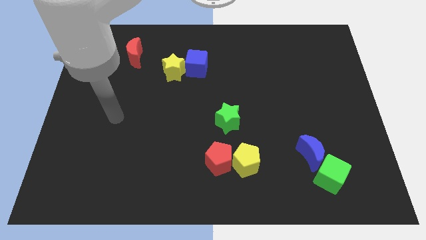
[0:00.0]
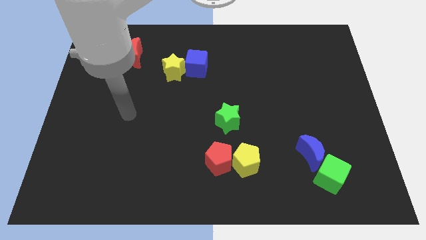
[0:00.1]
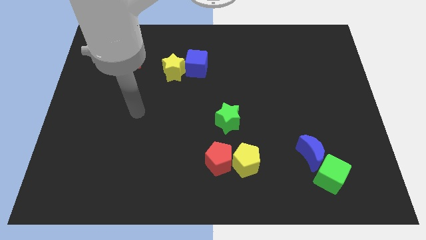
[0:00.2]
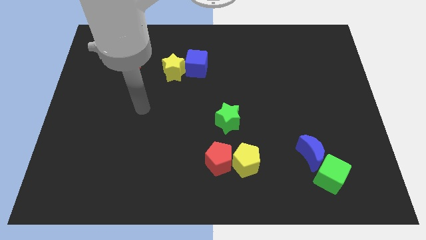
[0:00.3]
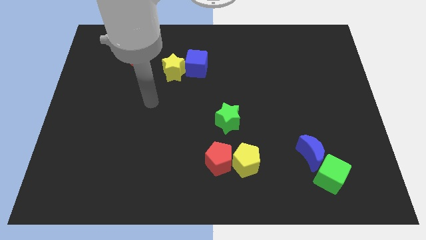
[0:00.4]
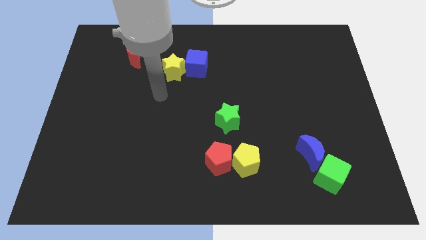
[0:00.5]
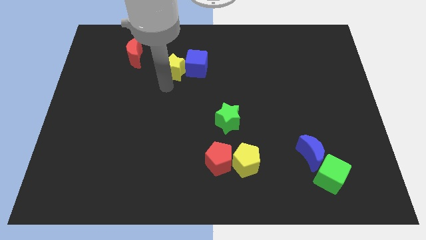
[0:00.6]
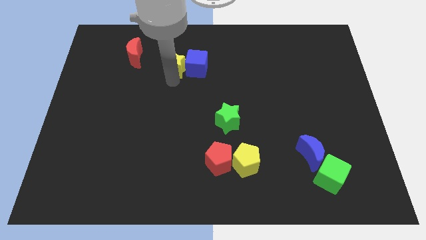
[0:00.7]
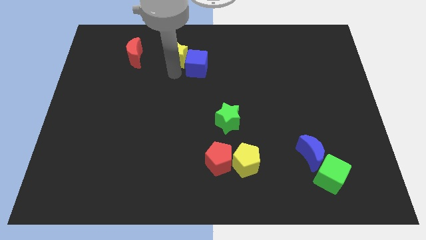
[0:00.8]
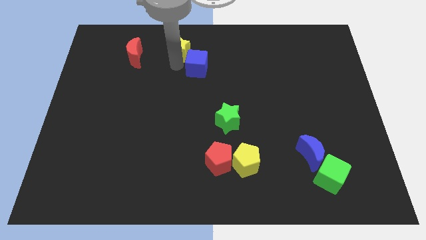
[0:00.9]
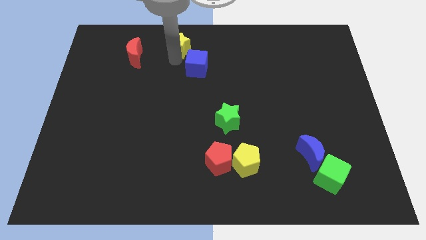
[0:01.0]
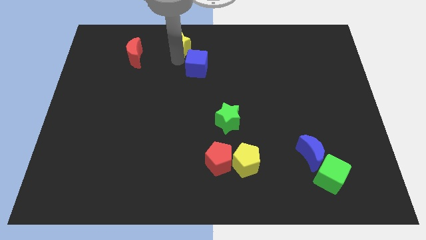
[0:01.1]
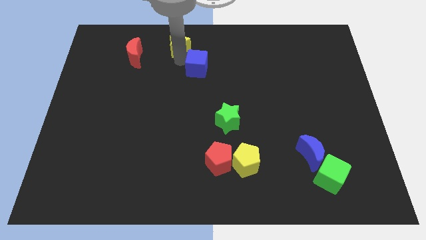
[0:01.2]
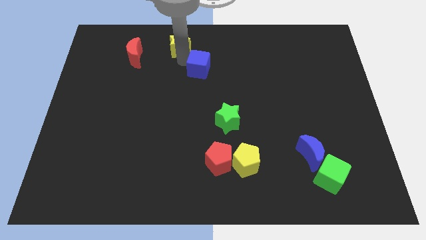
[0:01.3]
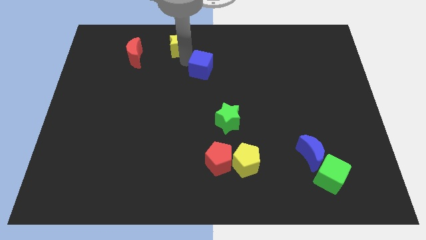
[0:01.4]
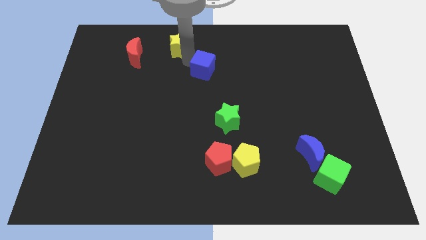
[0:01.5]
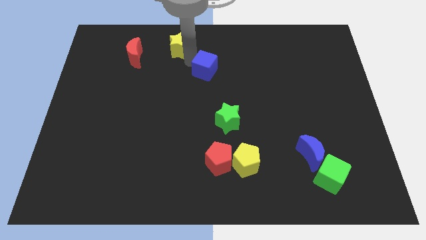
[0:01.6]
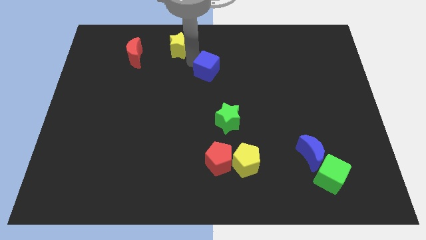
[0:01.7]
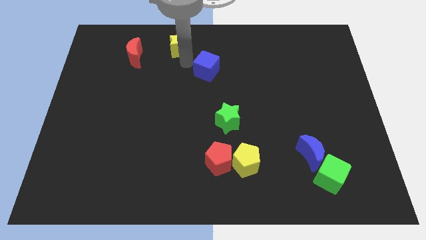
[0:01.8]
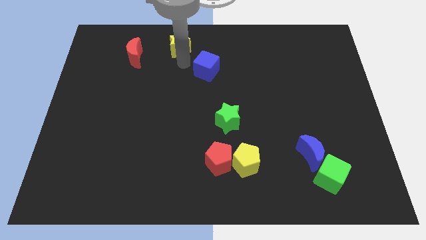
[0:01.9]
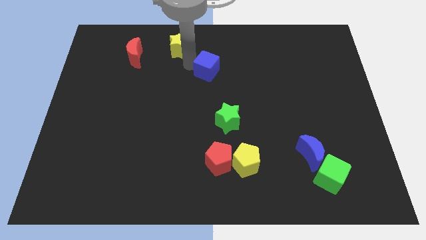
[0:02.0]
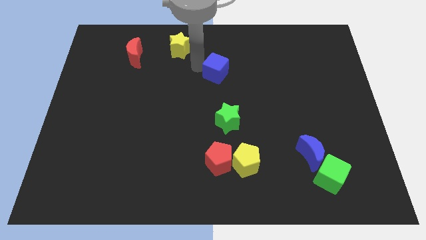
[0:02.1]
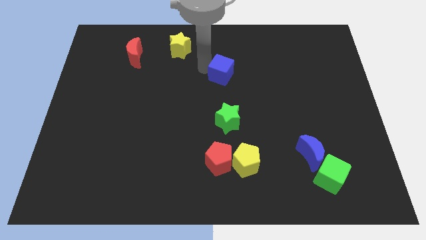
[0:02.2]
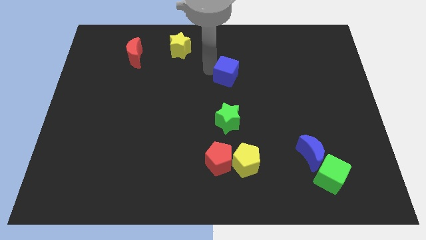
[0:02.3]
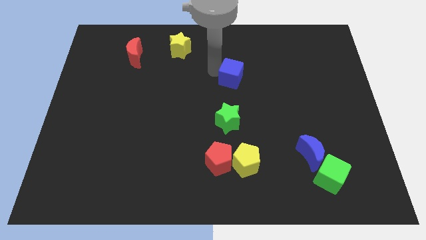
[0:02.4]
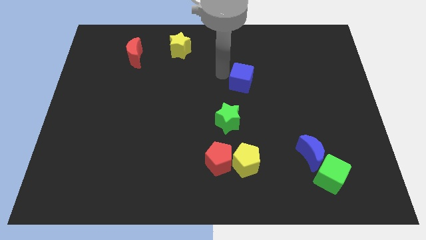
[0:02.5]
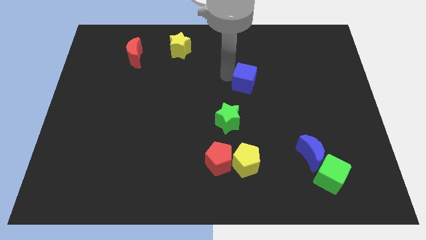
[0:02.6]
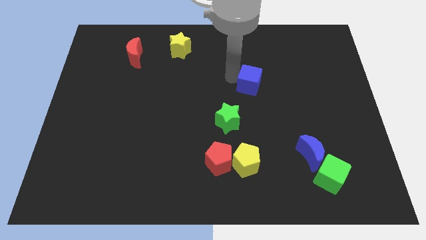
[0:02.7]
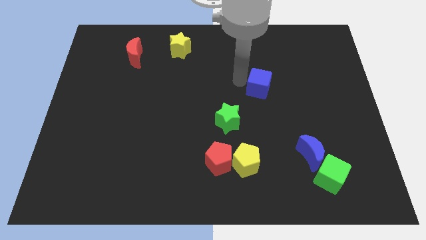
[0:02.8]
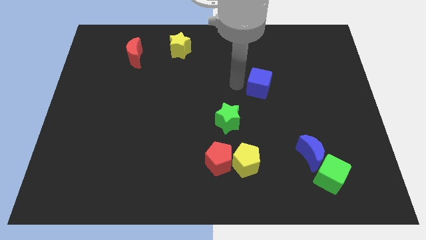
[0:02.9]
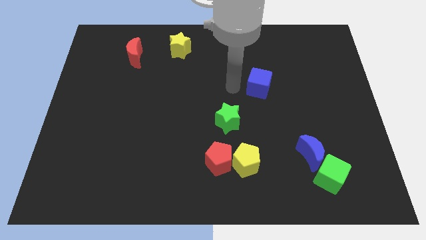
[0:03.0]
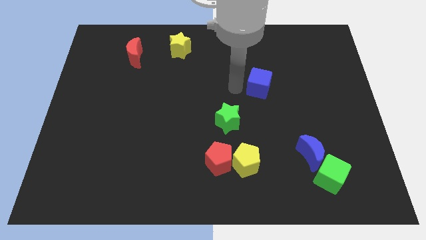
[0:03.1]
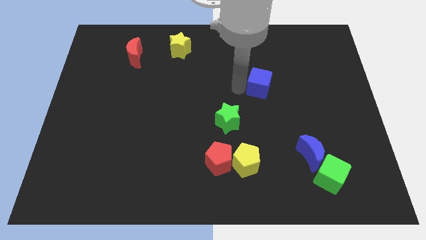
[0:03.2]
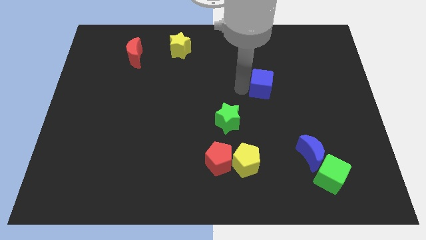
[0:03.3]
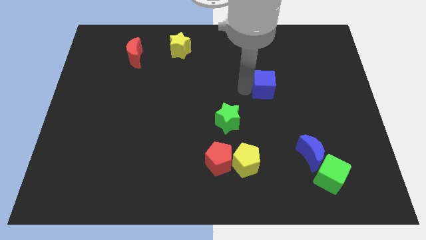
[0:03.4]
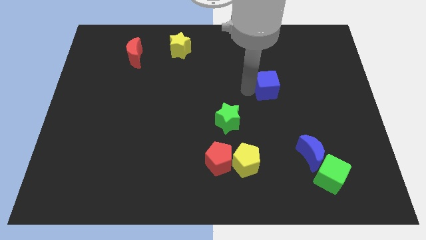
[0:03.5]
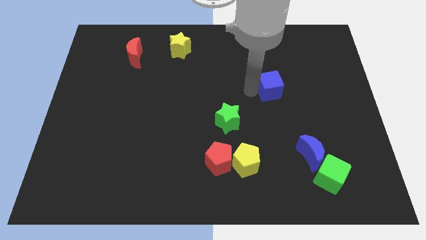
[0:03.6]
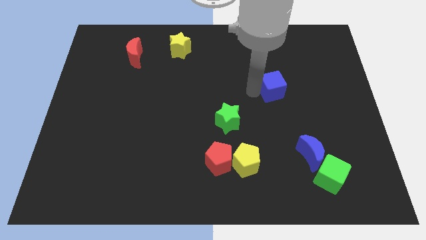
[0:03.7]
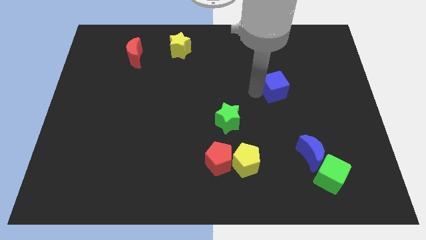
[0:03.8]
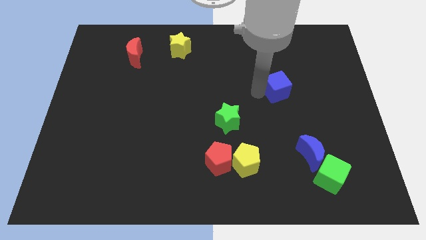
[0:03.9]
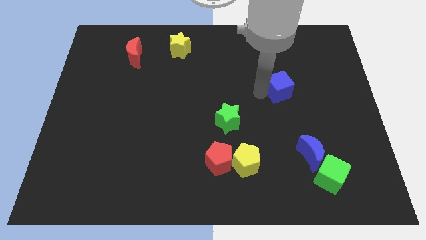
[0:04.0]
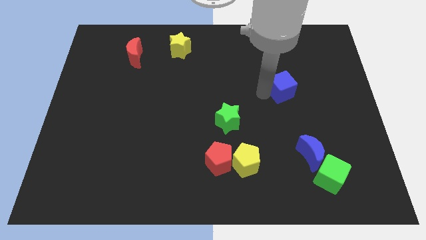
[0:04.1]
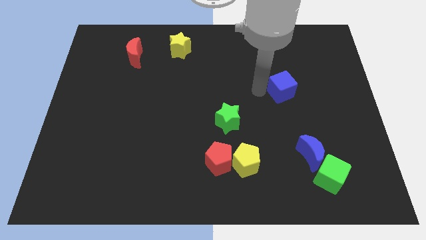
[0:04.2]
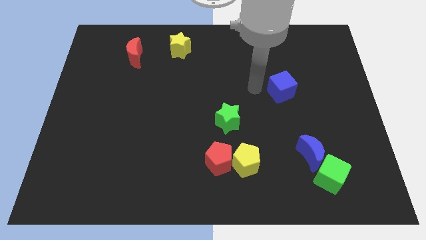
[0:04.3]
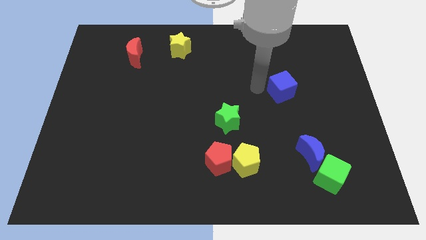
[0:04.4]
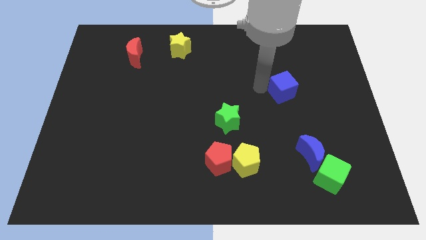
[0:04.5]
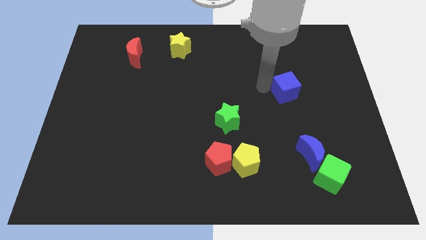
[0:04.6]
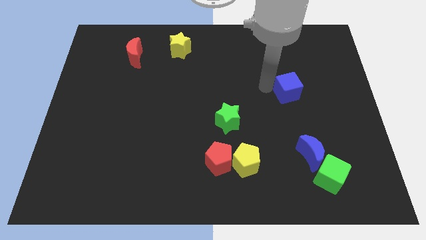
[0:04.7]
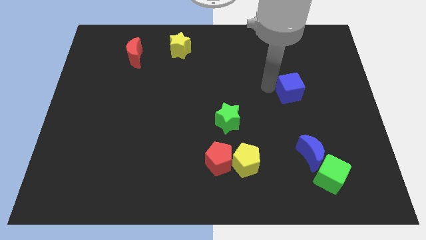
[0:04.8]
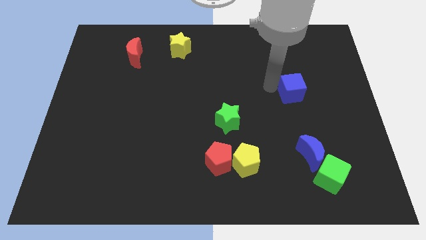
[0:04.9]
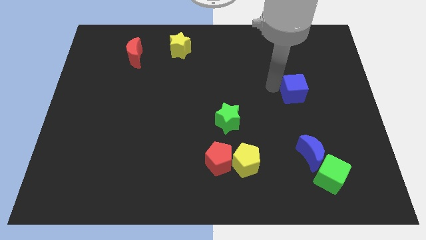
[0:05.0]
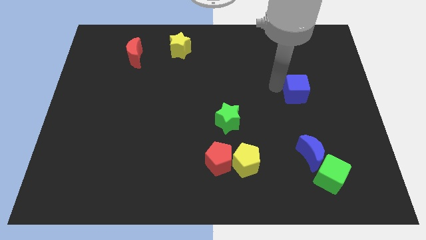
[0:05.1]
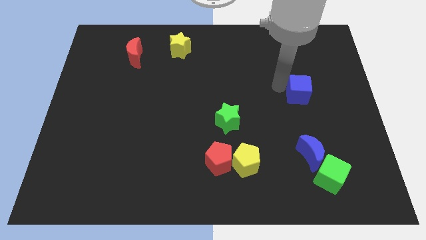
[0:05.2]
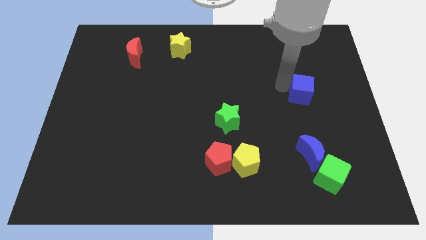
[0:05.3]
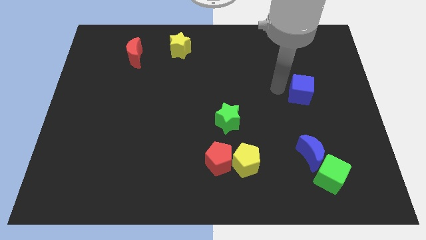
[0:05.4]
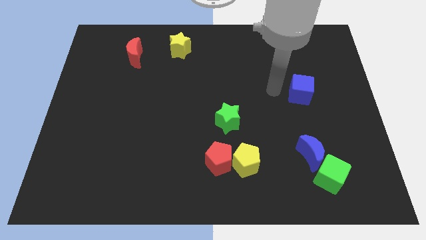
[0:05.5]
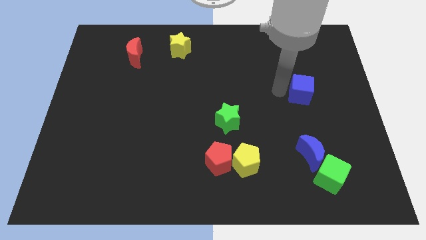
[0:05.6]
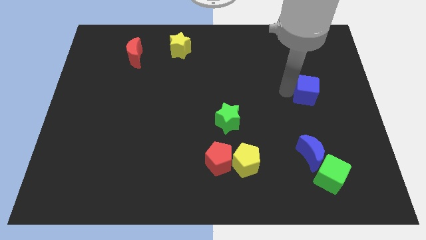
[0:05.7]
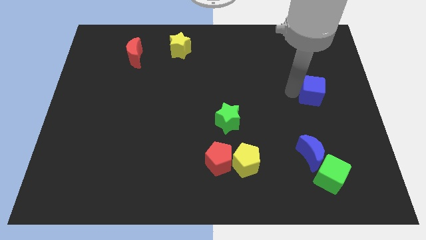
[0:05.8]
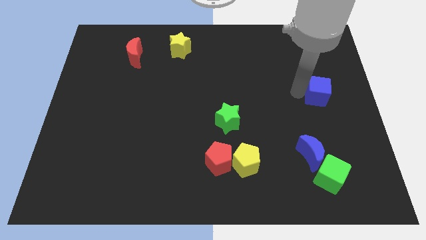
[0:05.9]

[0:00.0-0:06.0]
slide the blue cube to the right side of the board
